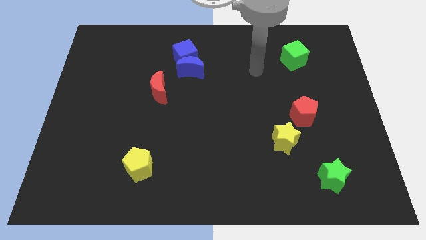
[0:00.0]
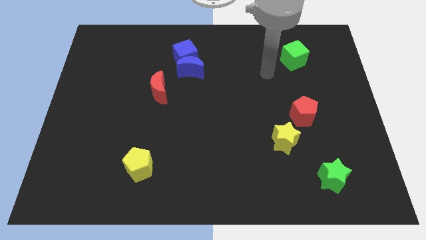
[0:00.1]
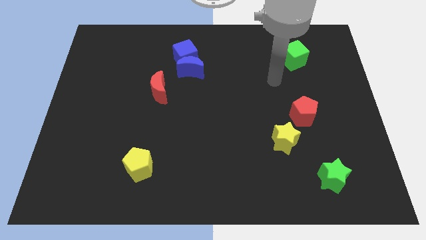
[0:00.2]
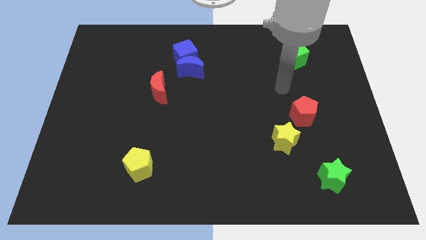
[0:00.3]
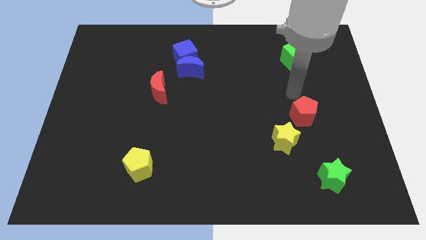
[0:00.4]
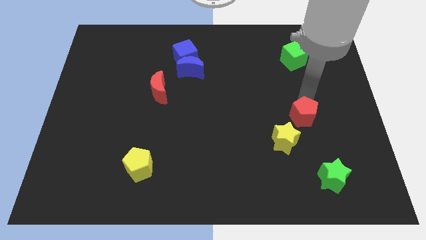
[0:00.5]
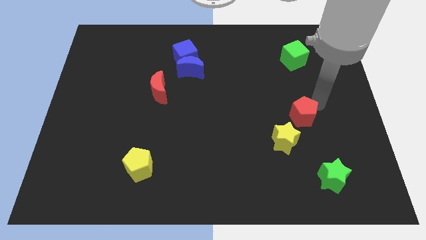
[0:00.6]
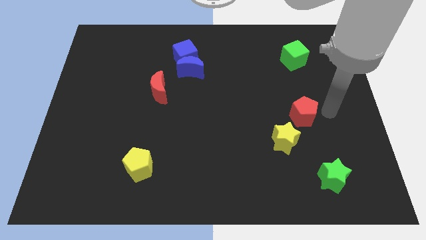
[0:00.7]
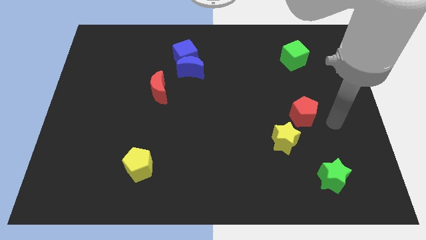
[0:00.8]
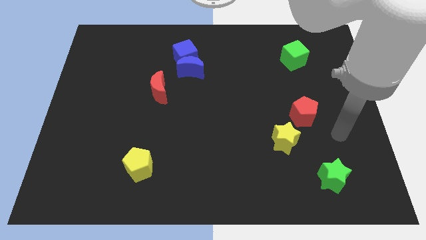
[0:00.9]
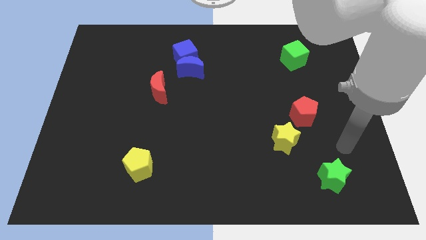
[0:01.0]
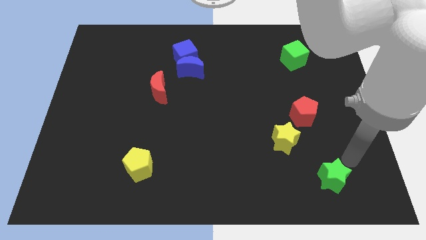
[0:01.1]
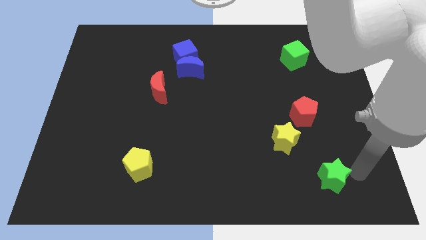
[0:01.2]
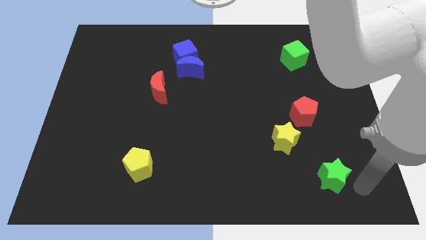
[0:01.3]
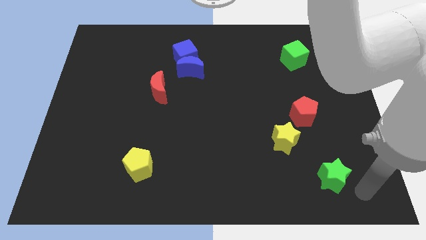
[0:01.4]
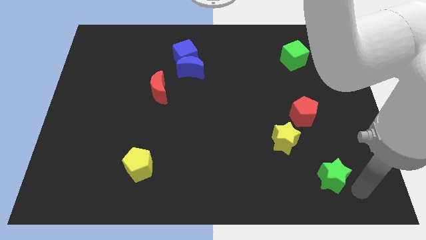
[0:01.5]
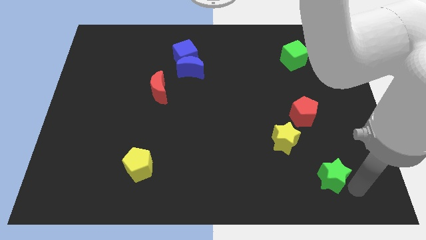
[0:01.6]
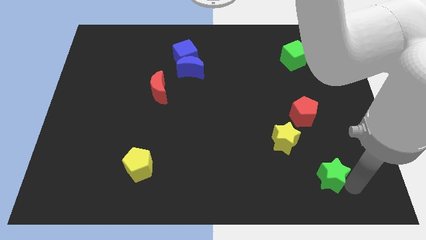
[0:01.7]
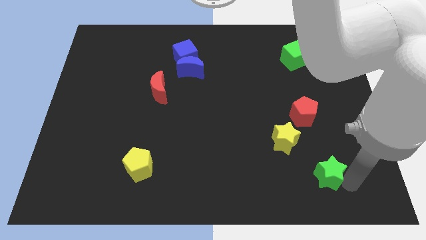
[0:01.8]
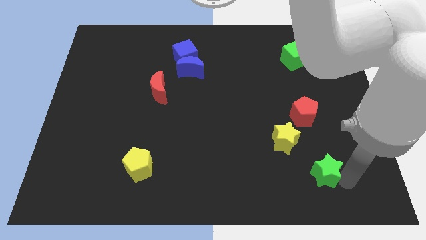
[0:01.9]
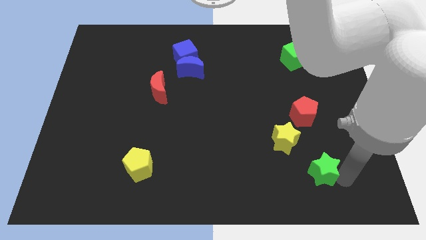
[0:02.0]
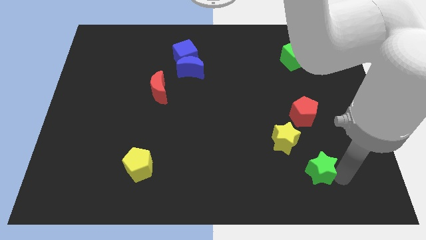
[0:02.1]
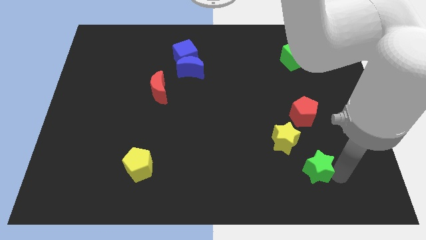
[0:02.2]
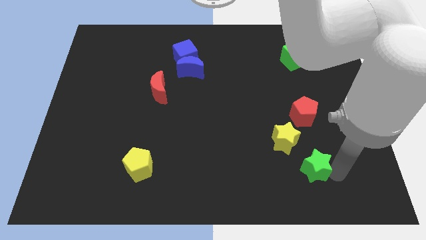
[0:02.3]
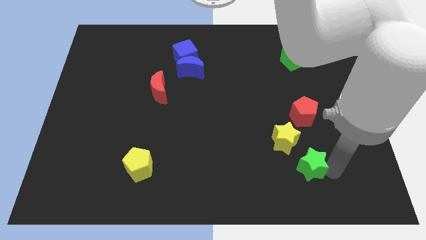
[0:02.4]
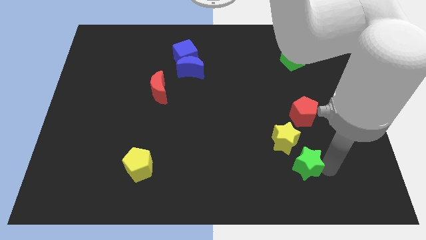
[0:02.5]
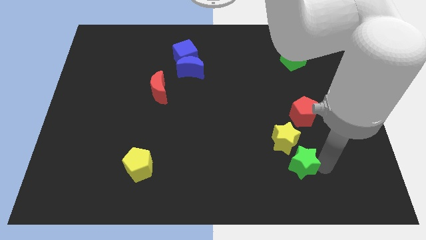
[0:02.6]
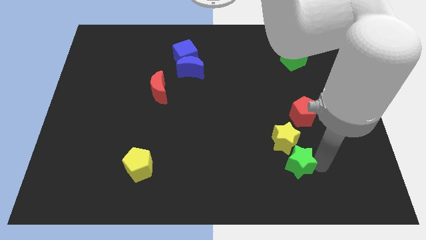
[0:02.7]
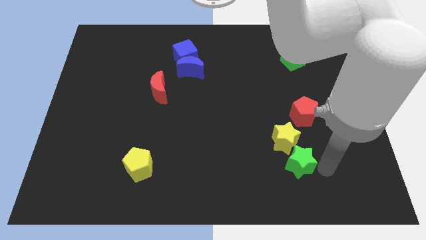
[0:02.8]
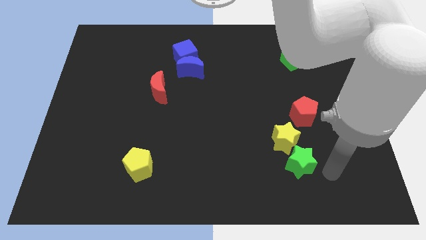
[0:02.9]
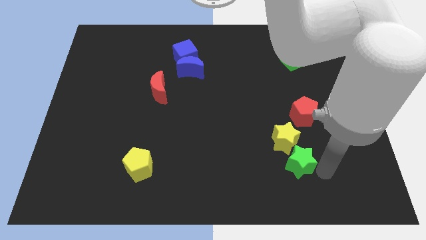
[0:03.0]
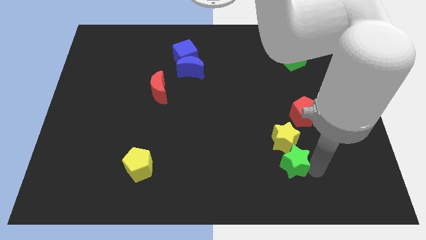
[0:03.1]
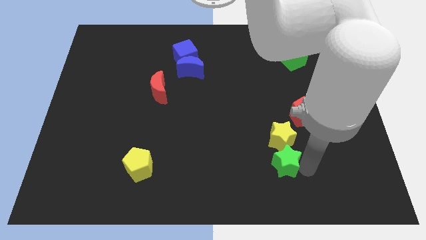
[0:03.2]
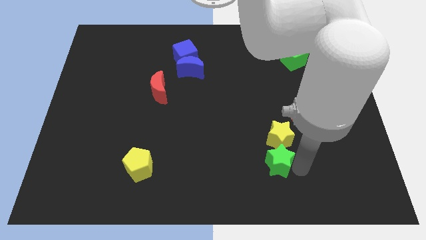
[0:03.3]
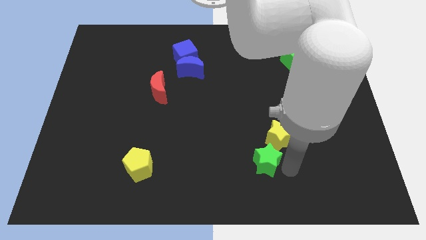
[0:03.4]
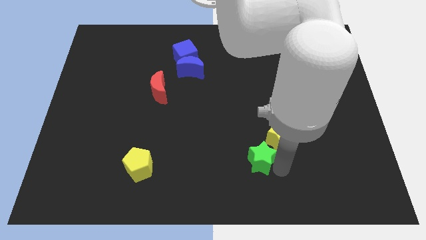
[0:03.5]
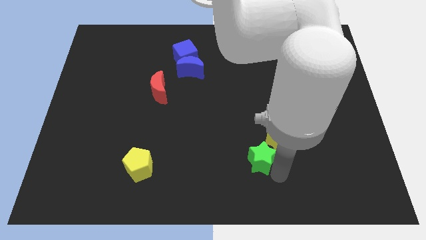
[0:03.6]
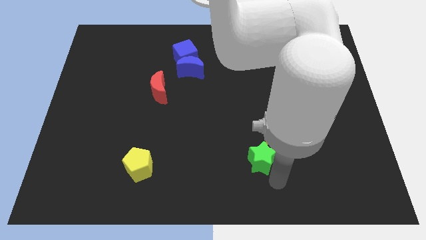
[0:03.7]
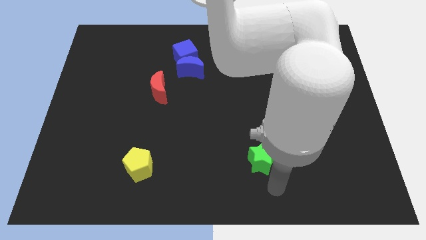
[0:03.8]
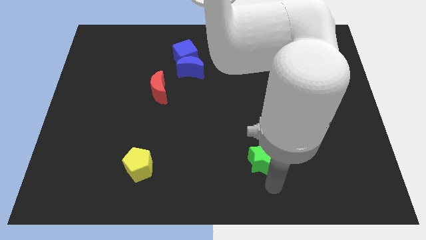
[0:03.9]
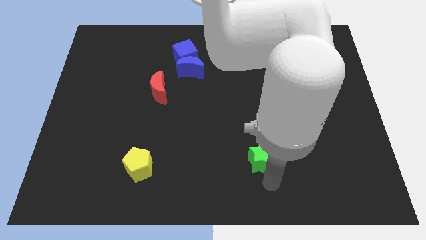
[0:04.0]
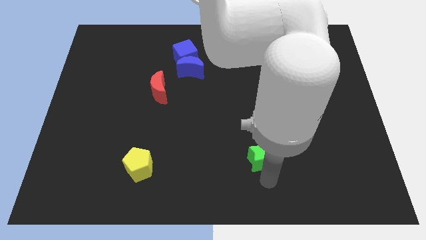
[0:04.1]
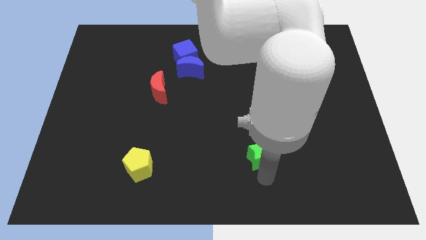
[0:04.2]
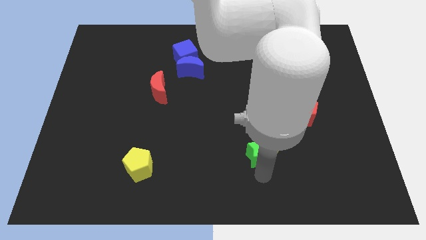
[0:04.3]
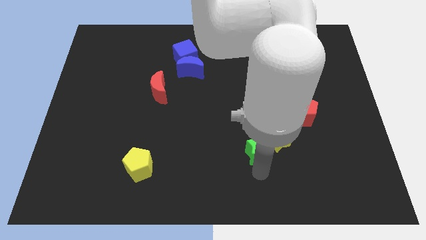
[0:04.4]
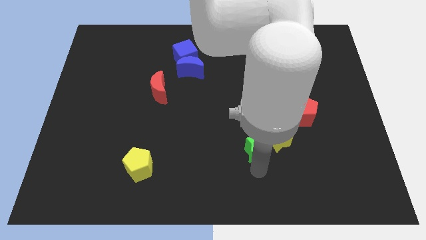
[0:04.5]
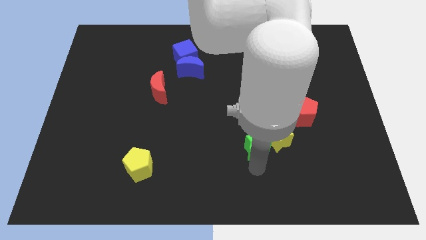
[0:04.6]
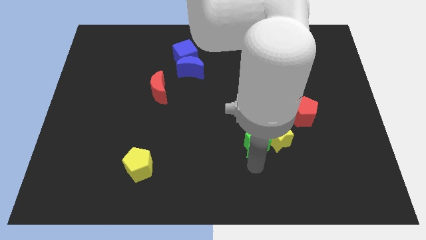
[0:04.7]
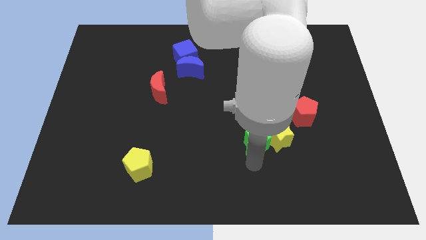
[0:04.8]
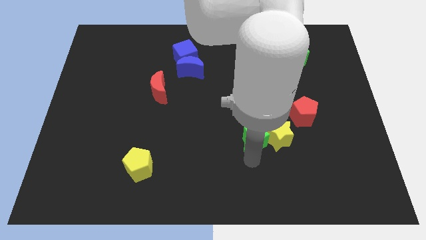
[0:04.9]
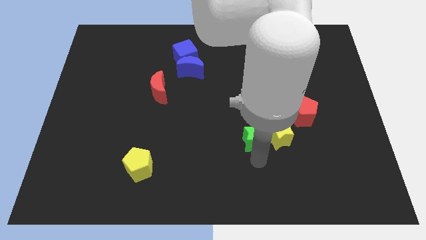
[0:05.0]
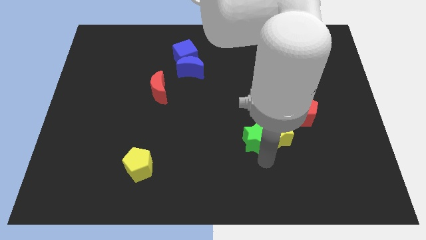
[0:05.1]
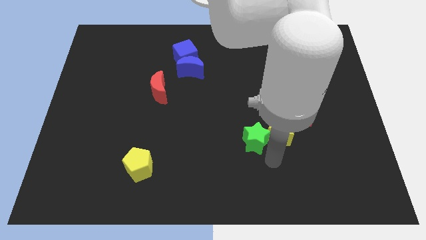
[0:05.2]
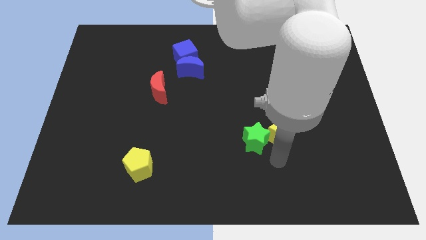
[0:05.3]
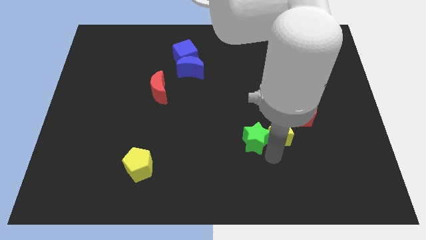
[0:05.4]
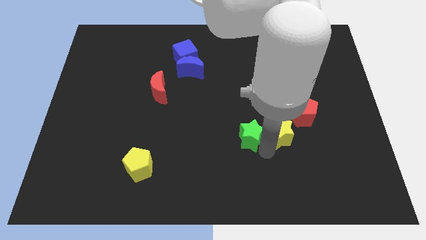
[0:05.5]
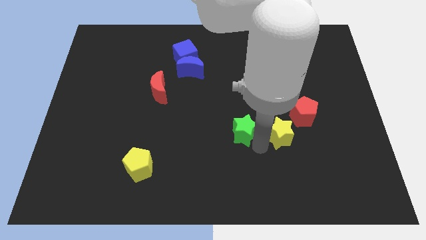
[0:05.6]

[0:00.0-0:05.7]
push the green star to the middle
